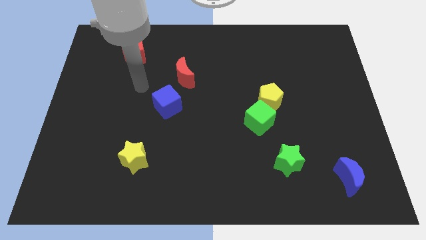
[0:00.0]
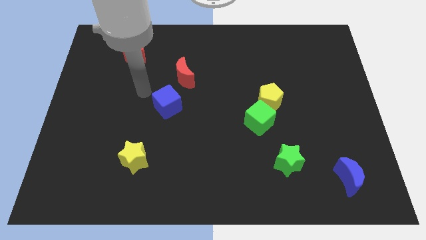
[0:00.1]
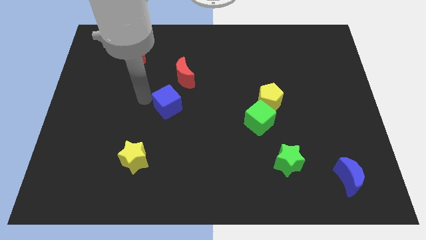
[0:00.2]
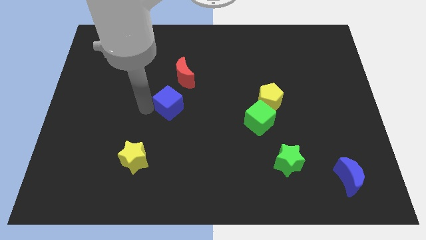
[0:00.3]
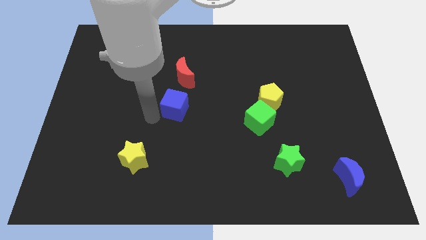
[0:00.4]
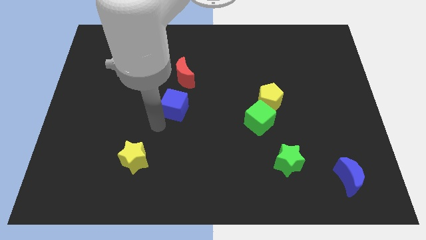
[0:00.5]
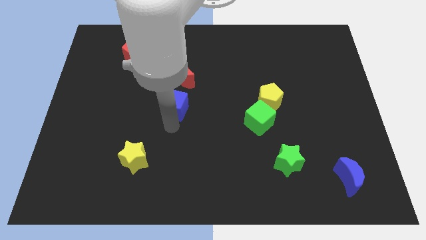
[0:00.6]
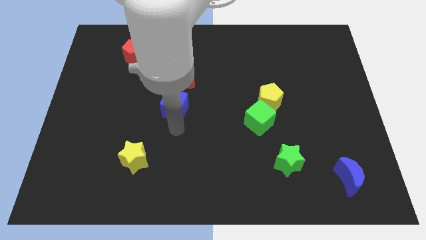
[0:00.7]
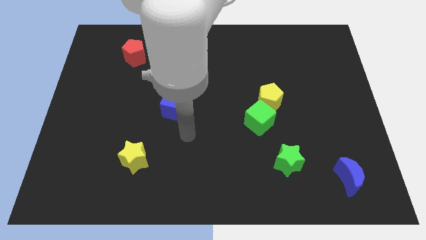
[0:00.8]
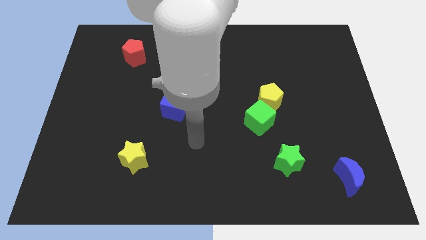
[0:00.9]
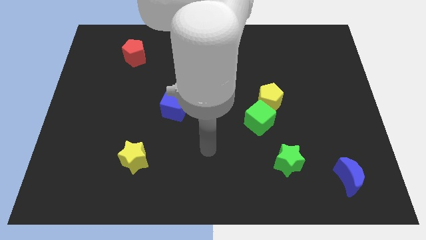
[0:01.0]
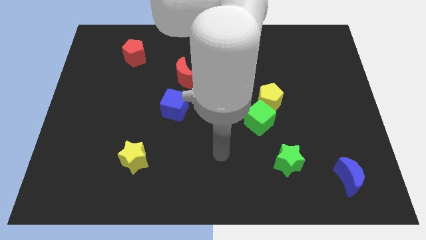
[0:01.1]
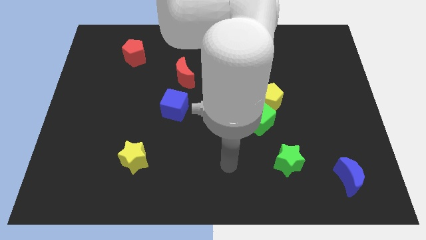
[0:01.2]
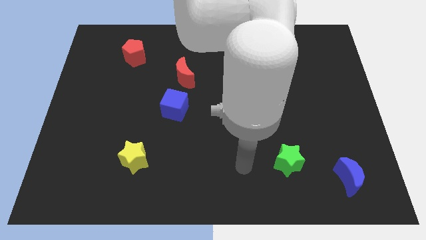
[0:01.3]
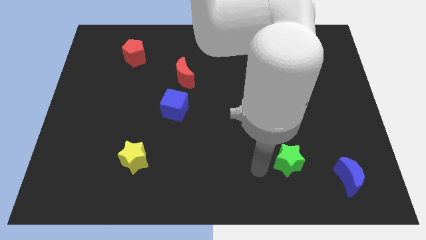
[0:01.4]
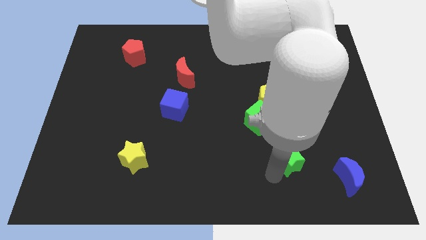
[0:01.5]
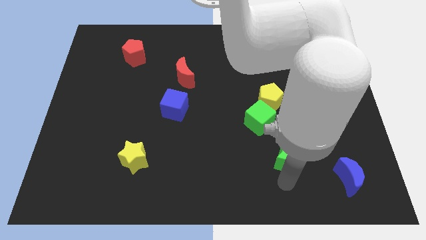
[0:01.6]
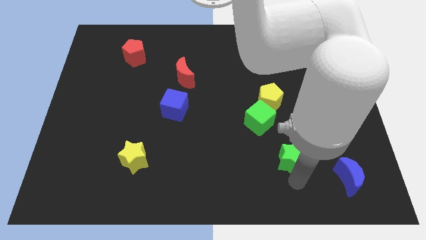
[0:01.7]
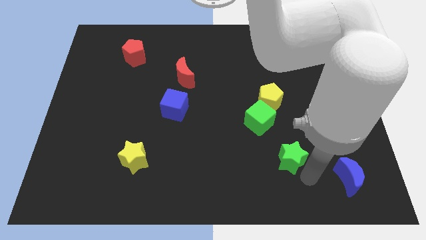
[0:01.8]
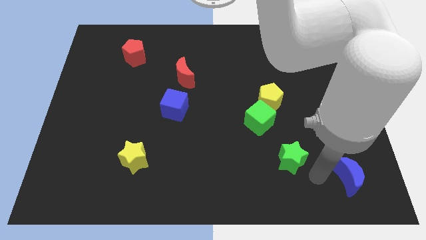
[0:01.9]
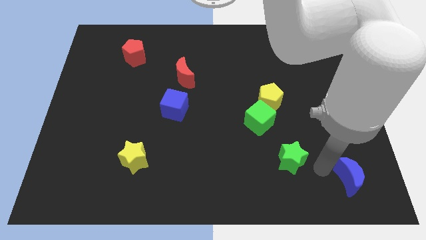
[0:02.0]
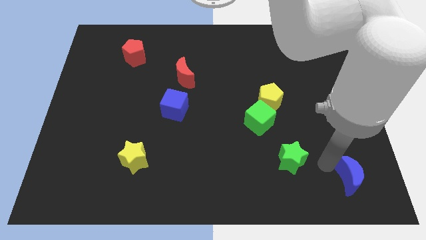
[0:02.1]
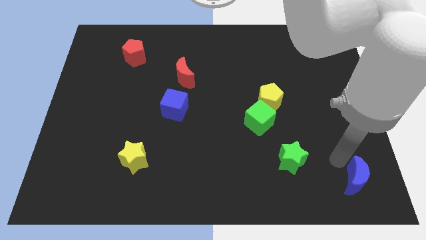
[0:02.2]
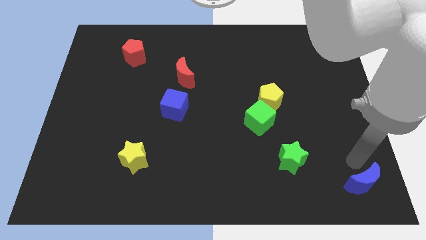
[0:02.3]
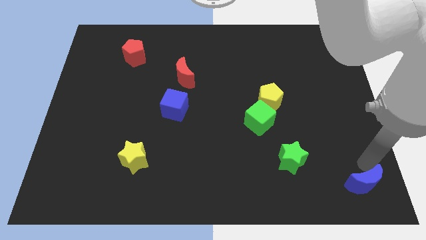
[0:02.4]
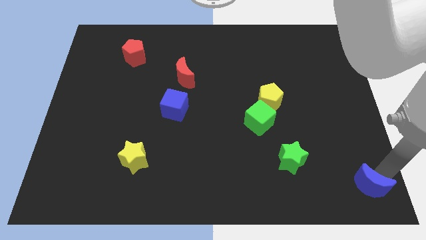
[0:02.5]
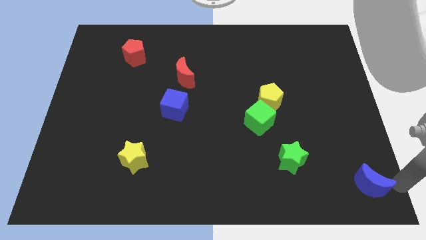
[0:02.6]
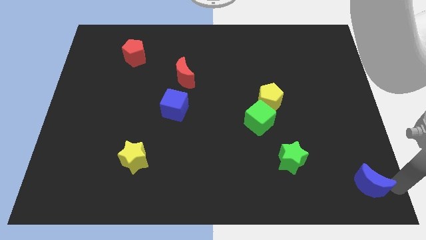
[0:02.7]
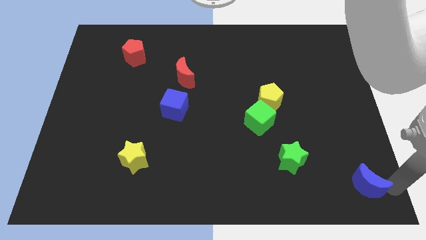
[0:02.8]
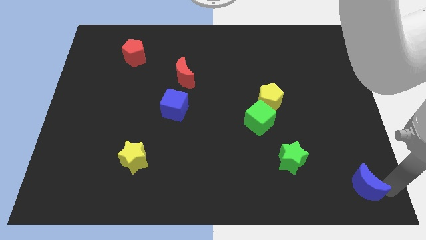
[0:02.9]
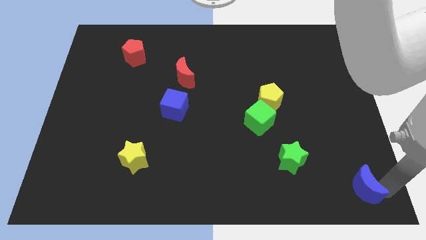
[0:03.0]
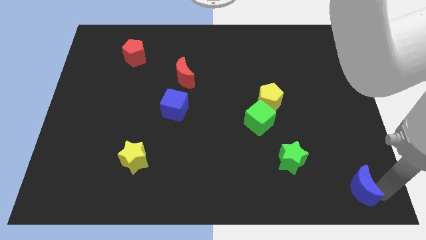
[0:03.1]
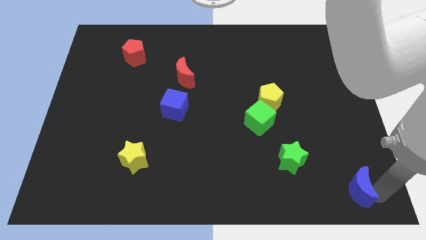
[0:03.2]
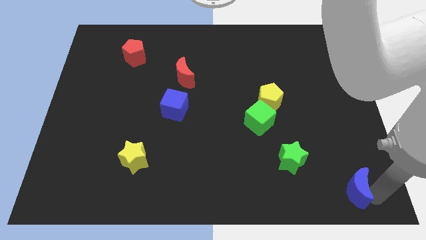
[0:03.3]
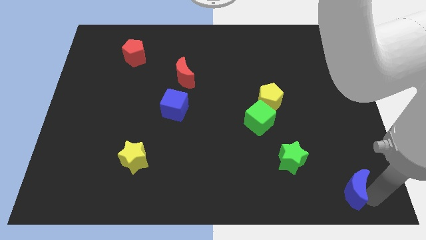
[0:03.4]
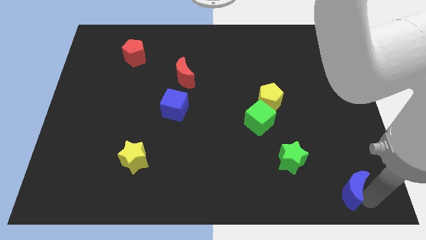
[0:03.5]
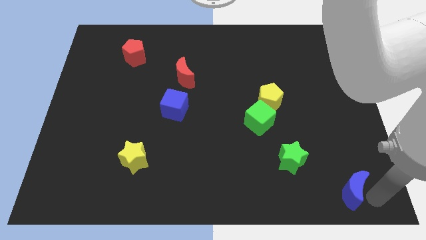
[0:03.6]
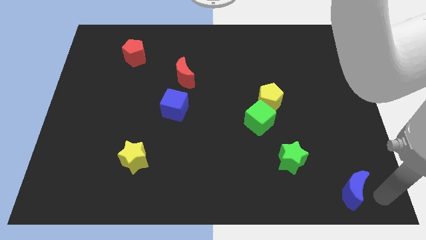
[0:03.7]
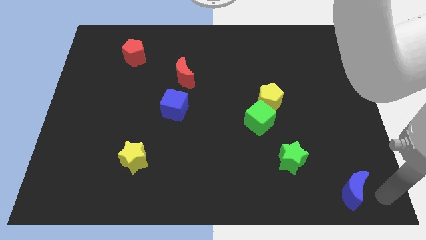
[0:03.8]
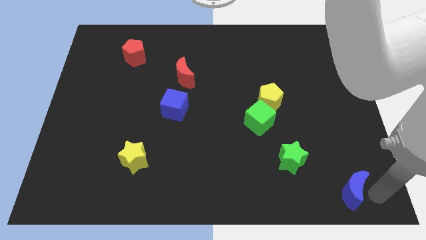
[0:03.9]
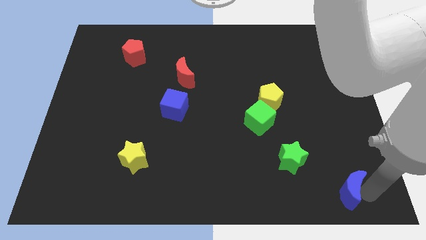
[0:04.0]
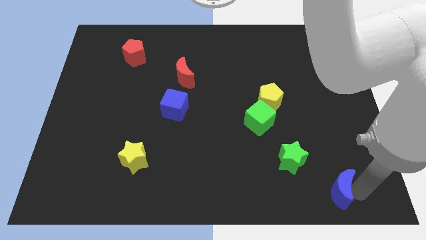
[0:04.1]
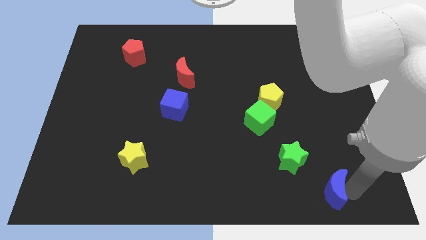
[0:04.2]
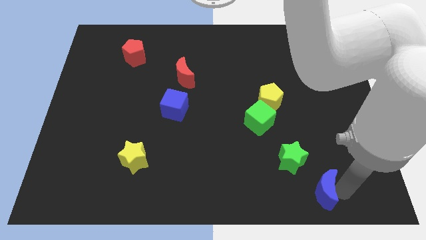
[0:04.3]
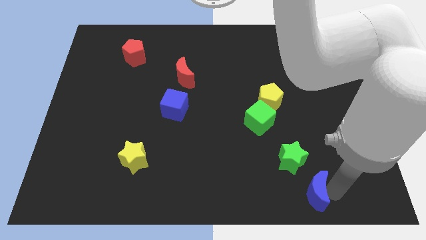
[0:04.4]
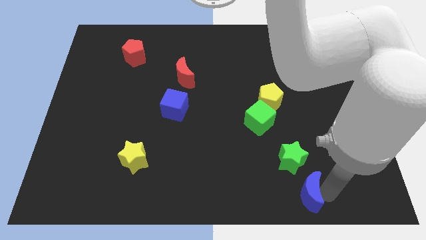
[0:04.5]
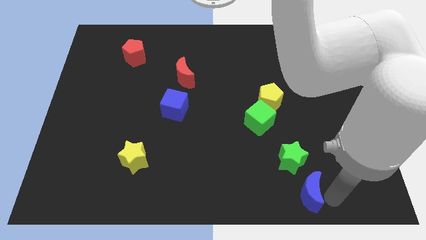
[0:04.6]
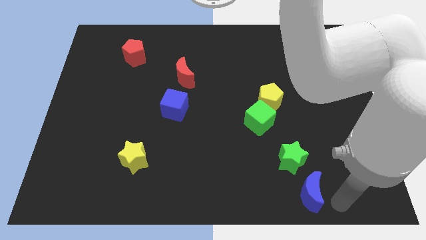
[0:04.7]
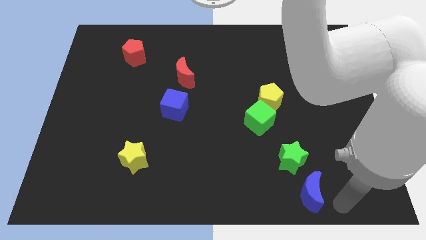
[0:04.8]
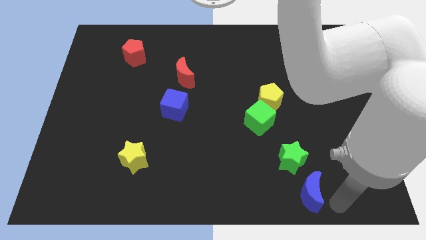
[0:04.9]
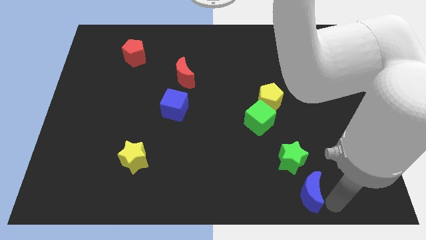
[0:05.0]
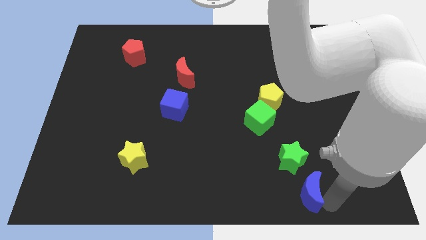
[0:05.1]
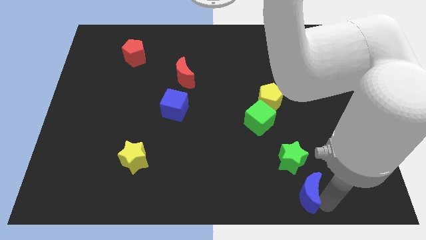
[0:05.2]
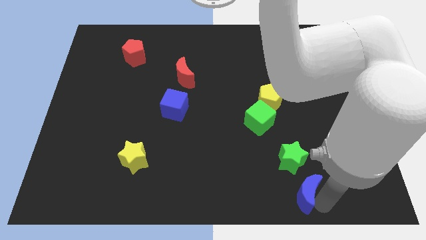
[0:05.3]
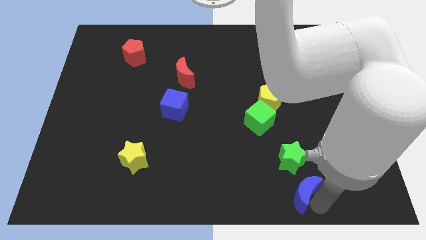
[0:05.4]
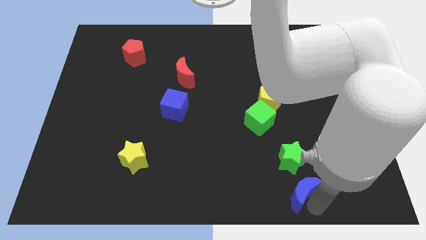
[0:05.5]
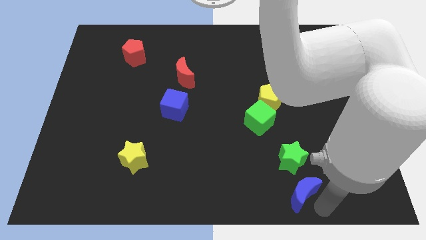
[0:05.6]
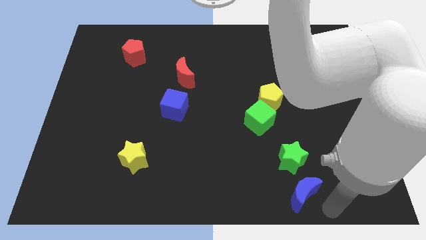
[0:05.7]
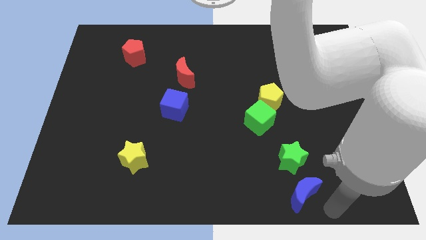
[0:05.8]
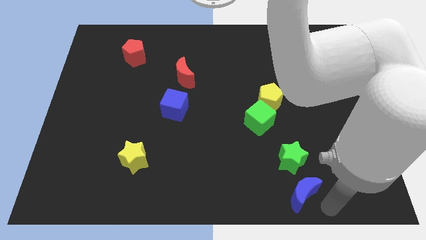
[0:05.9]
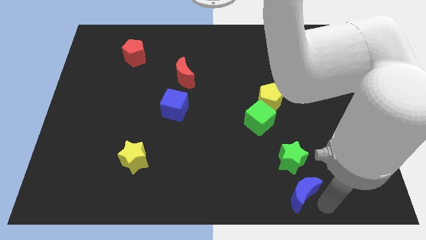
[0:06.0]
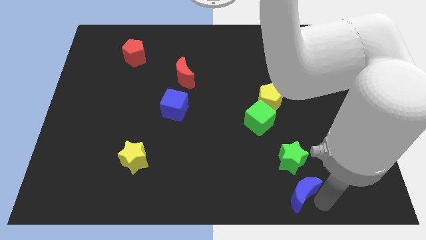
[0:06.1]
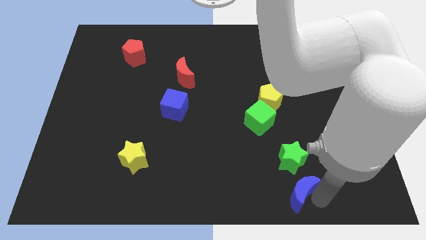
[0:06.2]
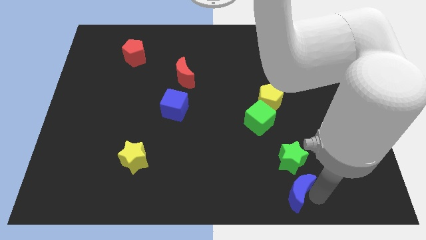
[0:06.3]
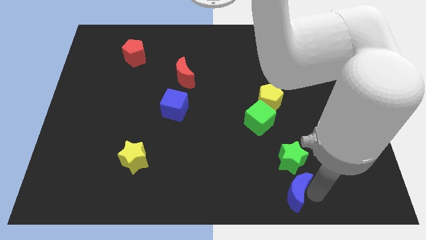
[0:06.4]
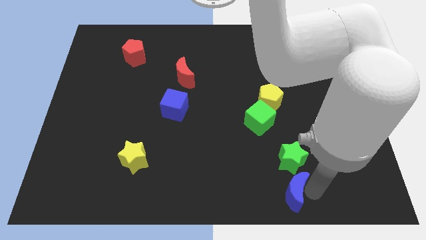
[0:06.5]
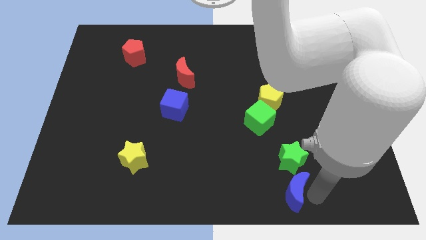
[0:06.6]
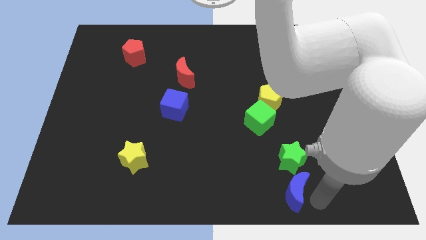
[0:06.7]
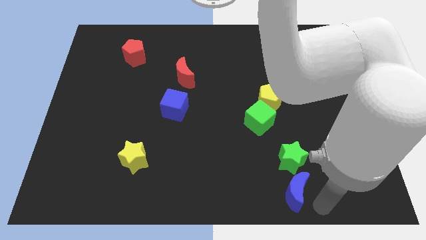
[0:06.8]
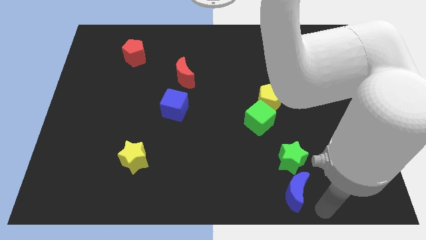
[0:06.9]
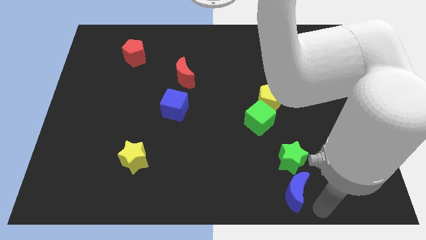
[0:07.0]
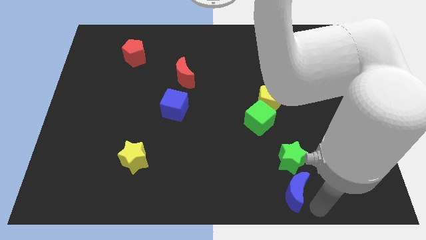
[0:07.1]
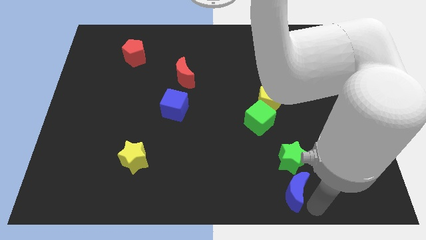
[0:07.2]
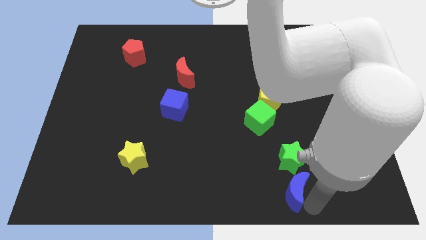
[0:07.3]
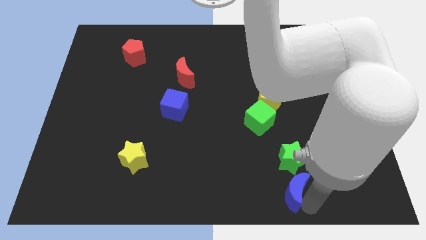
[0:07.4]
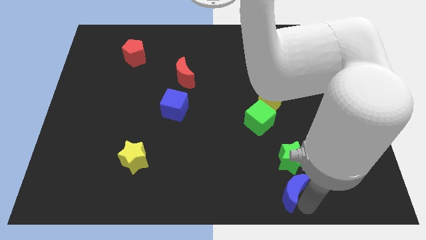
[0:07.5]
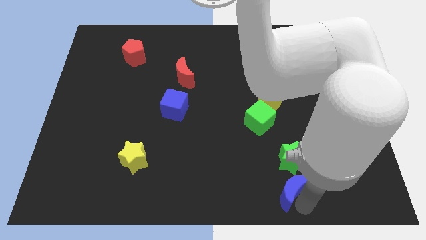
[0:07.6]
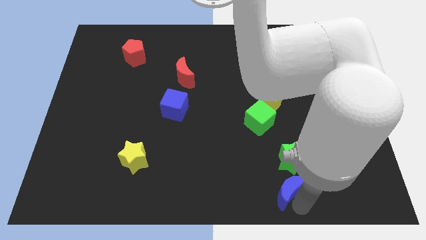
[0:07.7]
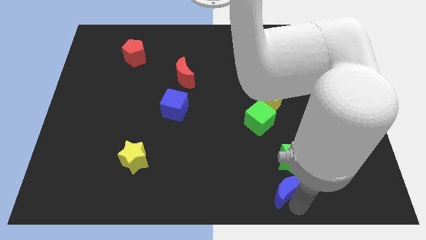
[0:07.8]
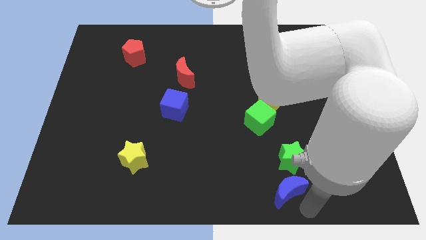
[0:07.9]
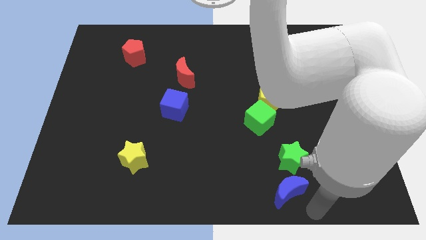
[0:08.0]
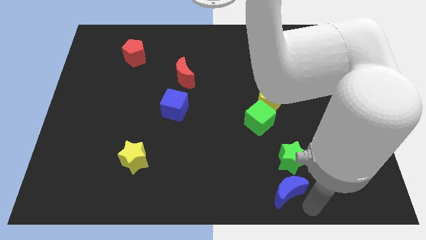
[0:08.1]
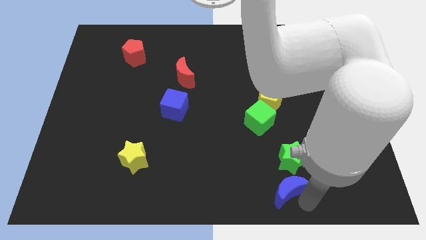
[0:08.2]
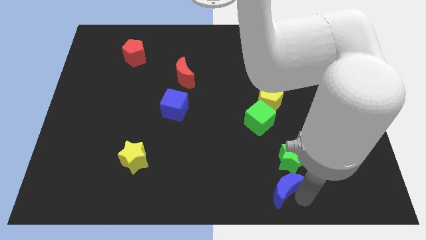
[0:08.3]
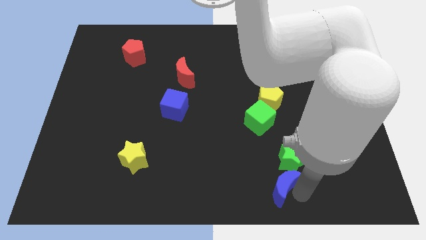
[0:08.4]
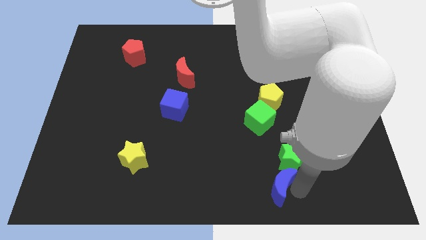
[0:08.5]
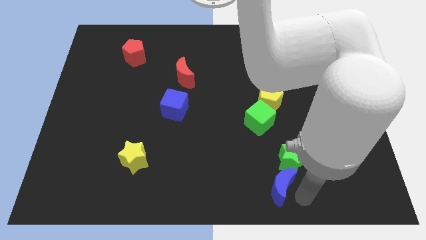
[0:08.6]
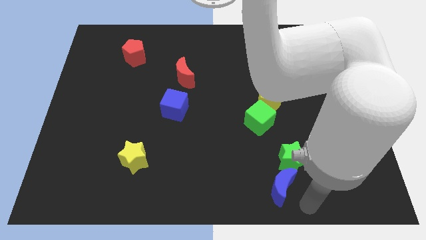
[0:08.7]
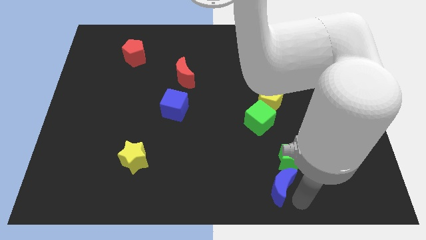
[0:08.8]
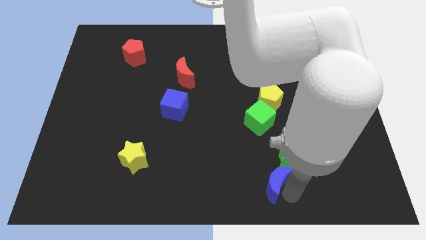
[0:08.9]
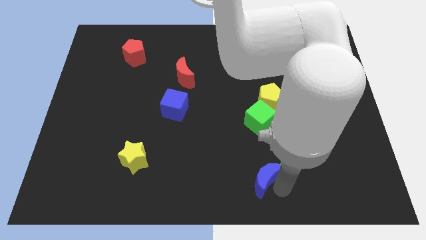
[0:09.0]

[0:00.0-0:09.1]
put the blue moon to the left side of the green star
